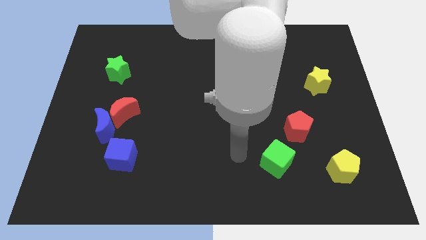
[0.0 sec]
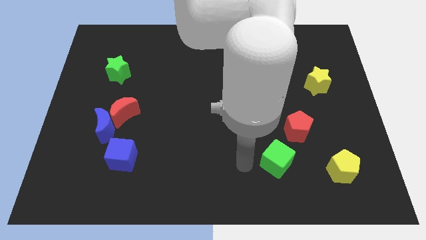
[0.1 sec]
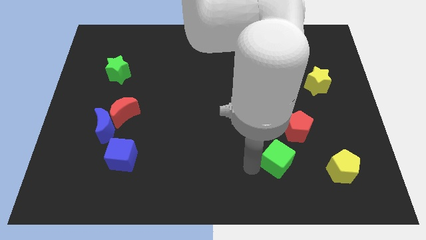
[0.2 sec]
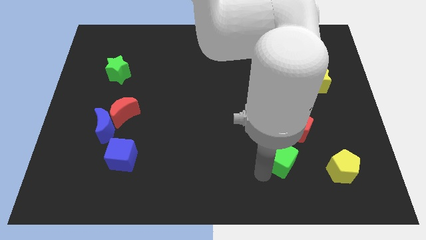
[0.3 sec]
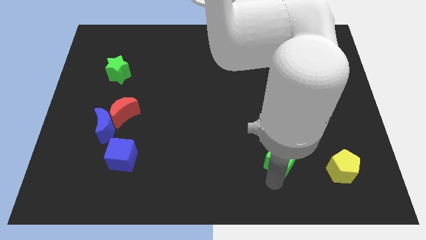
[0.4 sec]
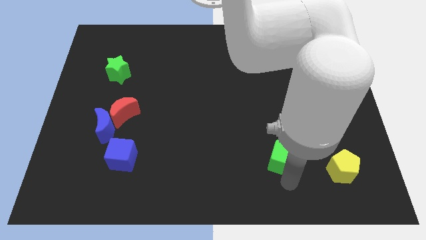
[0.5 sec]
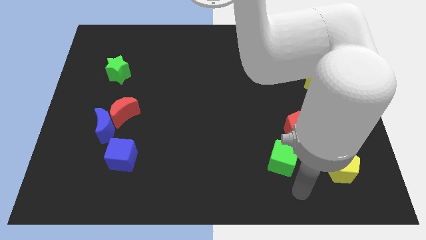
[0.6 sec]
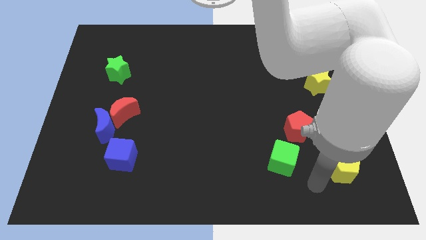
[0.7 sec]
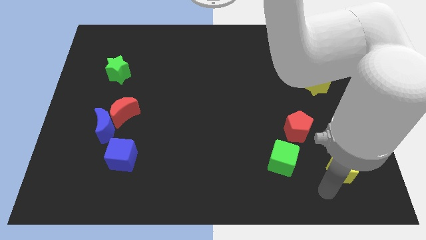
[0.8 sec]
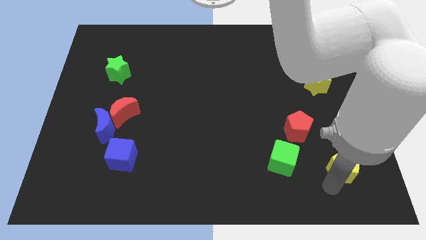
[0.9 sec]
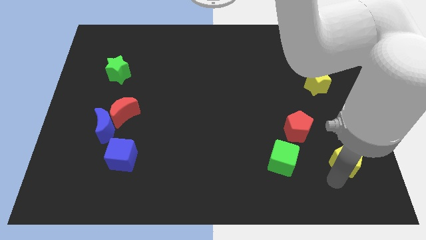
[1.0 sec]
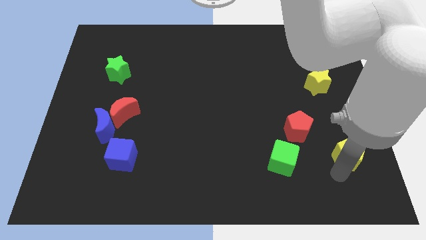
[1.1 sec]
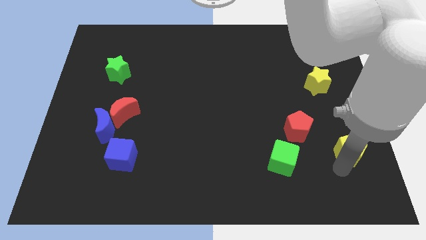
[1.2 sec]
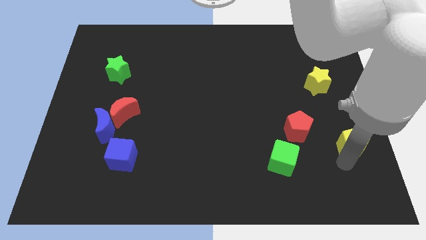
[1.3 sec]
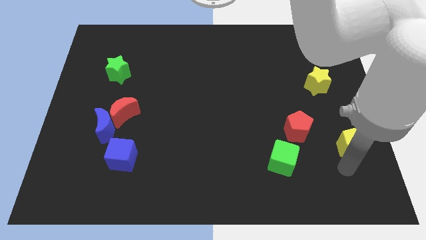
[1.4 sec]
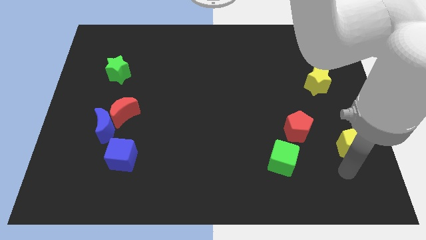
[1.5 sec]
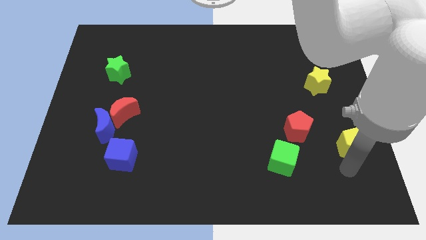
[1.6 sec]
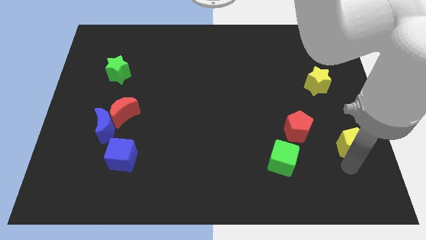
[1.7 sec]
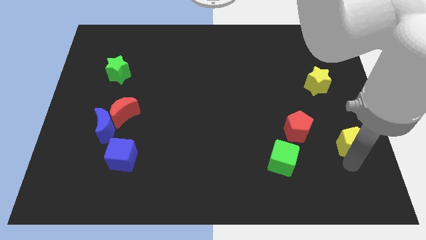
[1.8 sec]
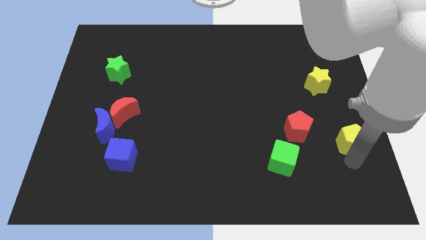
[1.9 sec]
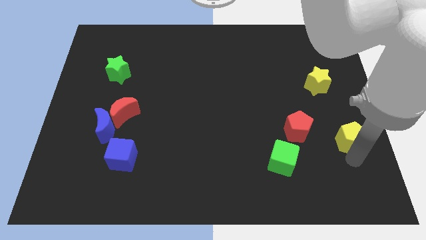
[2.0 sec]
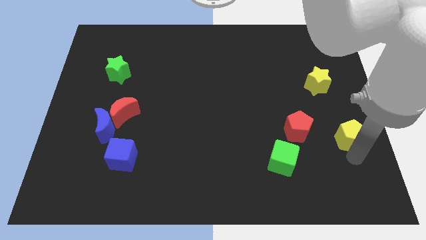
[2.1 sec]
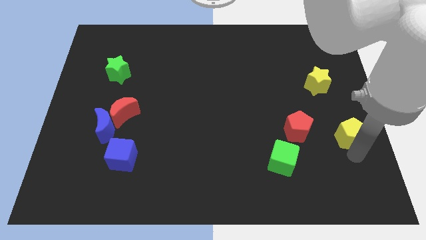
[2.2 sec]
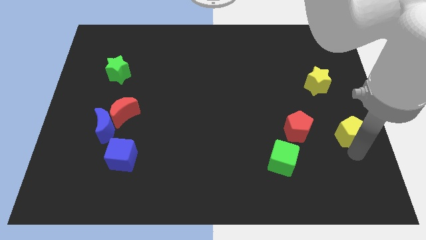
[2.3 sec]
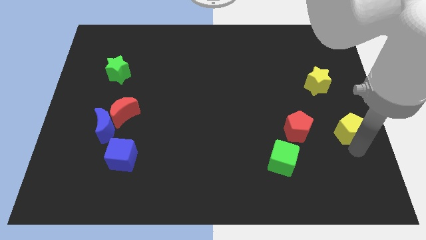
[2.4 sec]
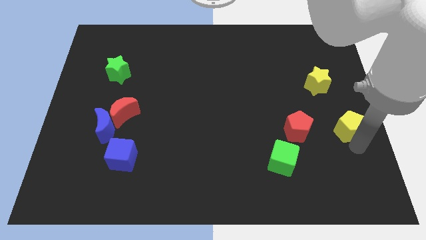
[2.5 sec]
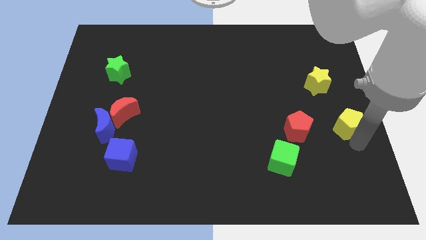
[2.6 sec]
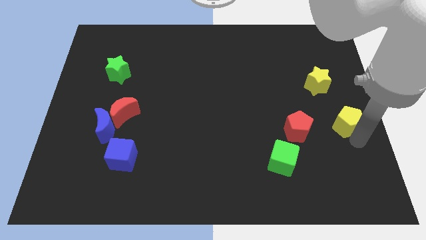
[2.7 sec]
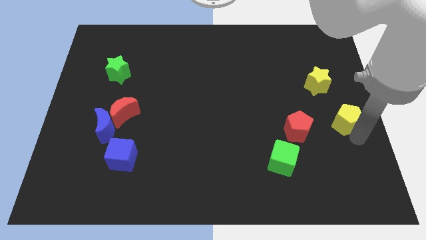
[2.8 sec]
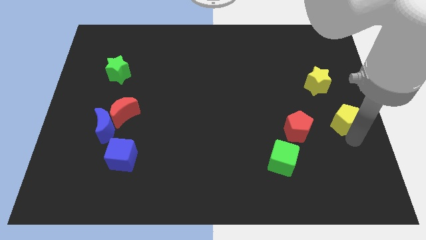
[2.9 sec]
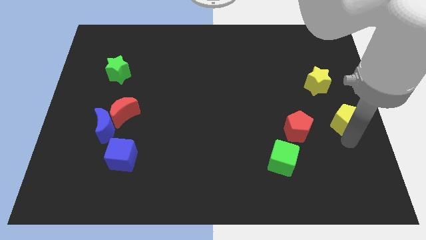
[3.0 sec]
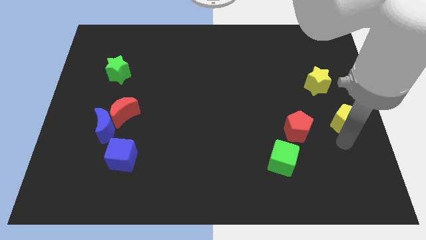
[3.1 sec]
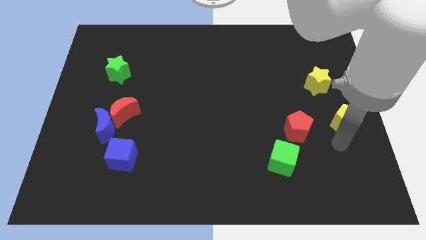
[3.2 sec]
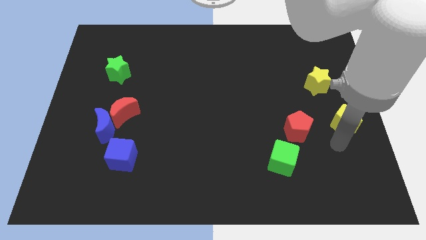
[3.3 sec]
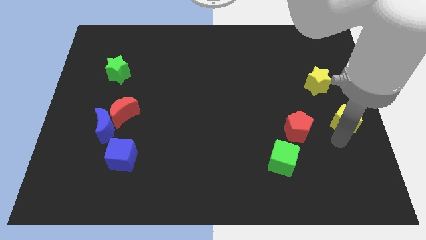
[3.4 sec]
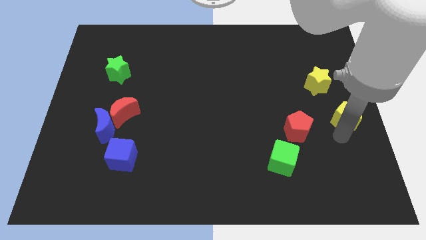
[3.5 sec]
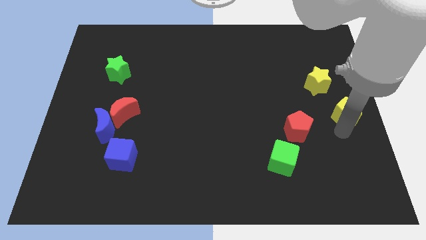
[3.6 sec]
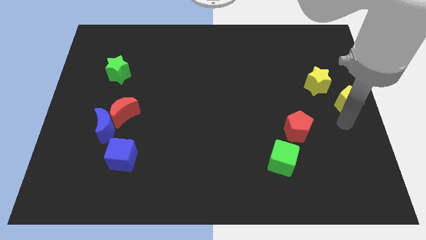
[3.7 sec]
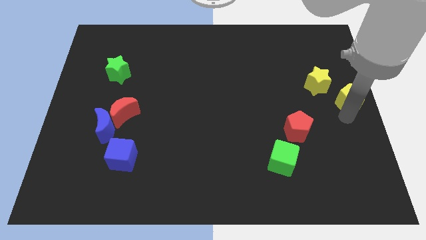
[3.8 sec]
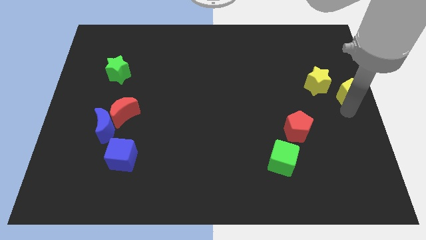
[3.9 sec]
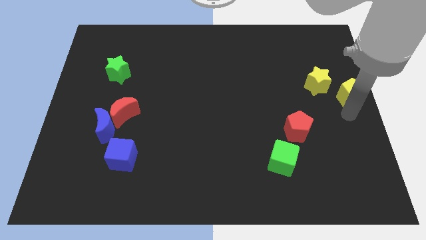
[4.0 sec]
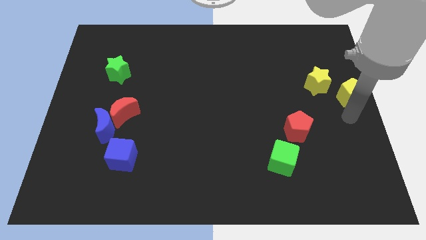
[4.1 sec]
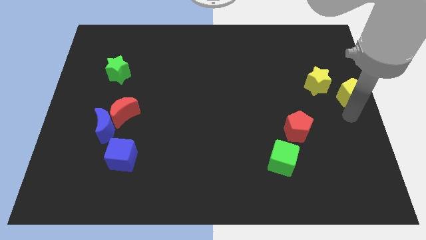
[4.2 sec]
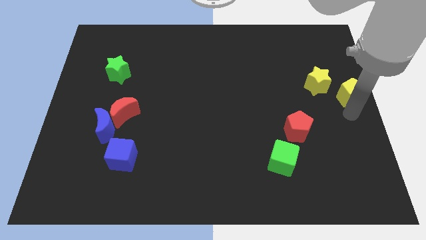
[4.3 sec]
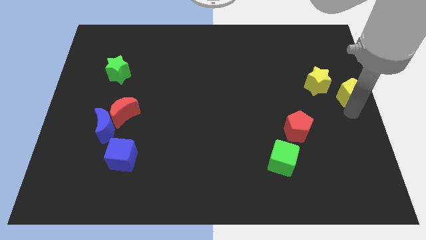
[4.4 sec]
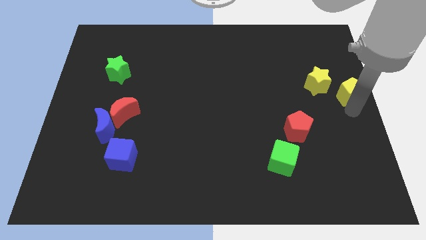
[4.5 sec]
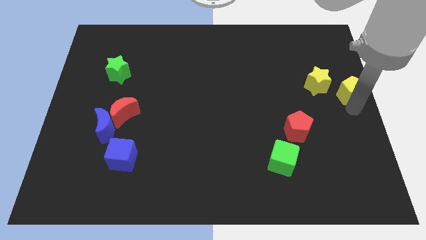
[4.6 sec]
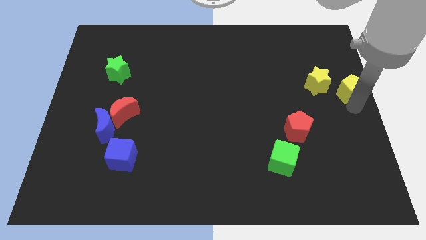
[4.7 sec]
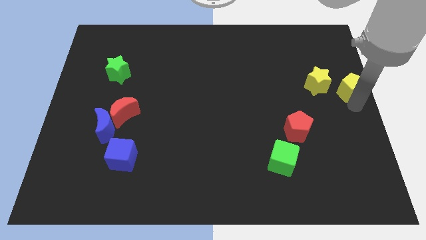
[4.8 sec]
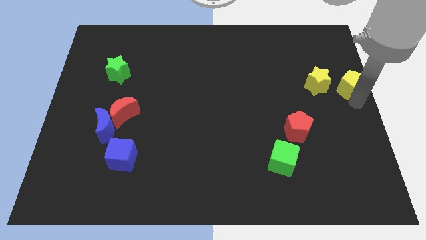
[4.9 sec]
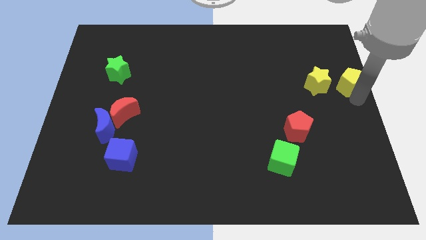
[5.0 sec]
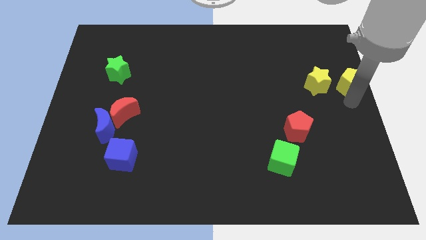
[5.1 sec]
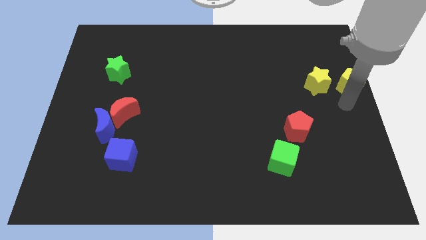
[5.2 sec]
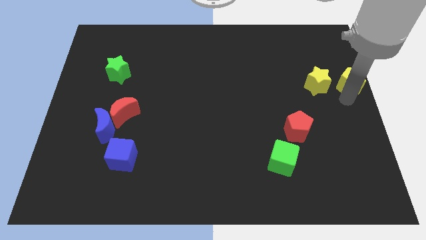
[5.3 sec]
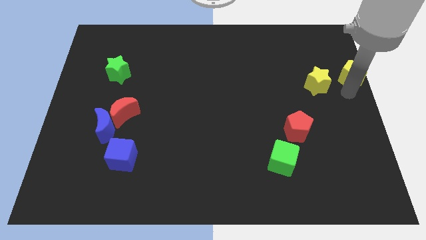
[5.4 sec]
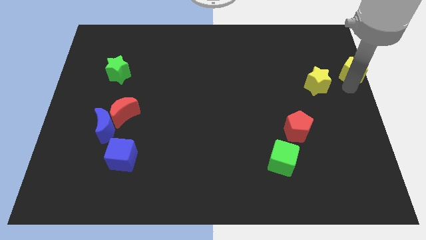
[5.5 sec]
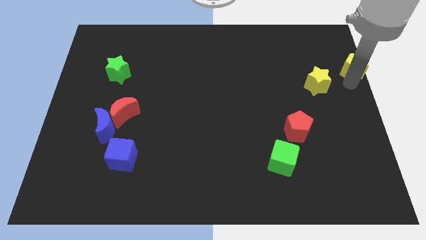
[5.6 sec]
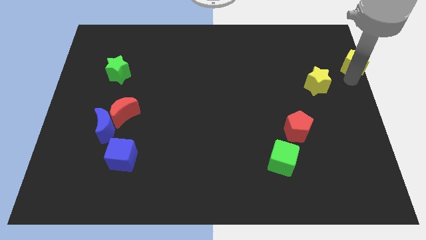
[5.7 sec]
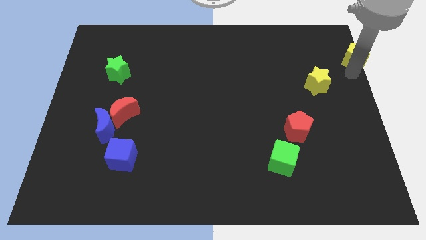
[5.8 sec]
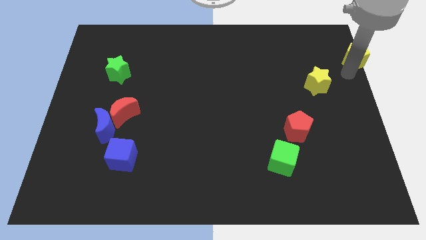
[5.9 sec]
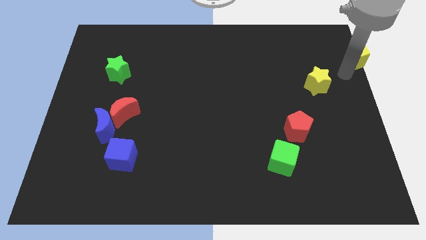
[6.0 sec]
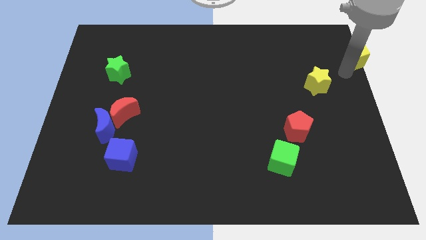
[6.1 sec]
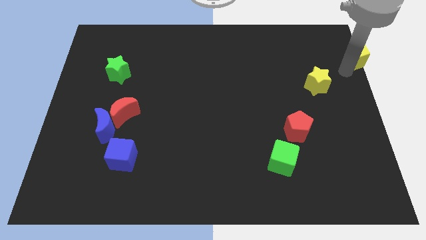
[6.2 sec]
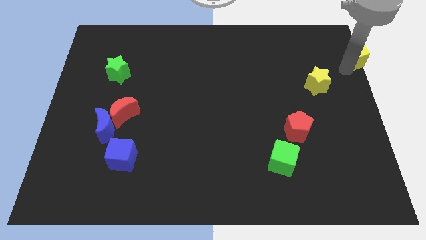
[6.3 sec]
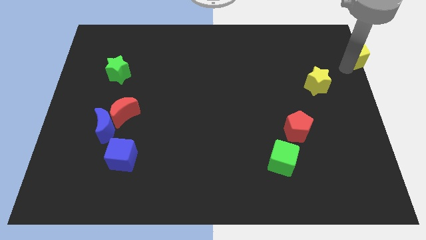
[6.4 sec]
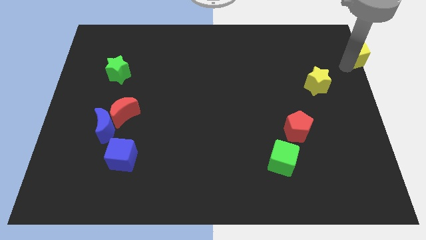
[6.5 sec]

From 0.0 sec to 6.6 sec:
push the yellow pentagon to the upper right corner
